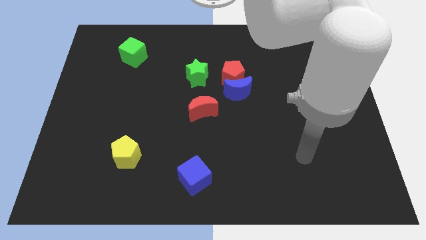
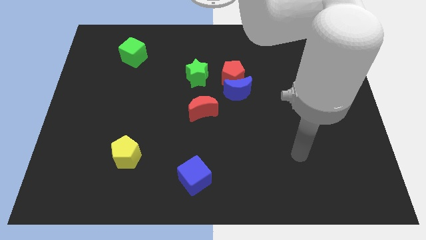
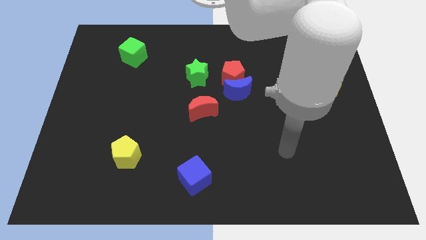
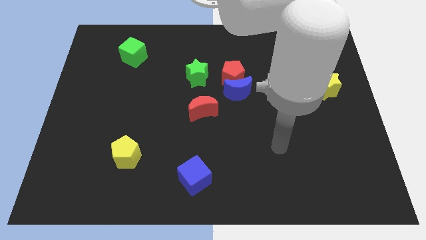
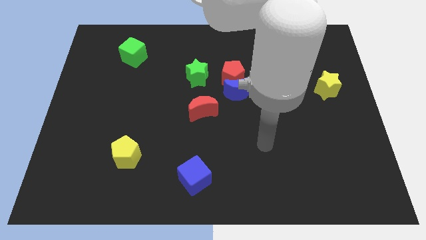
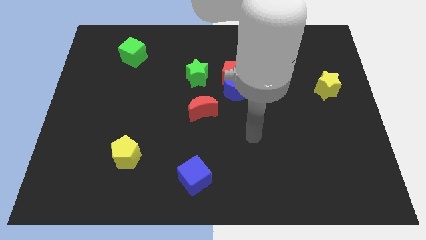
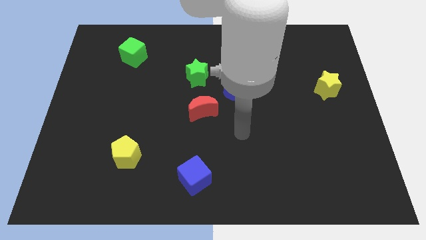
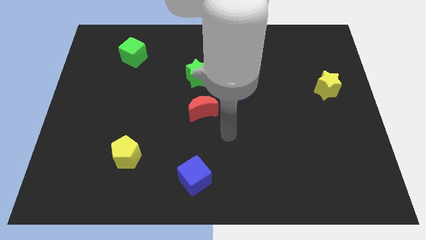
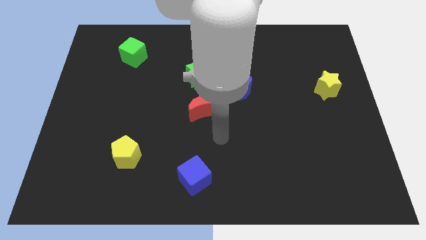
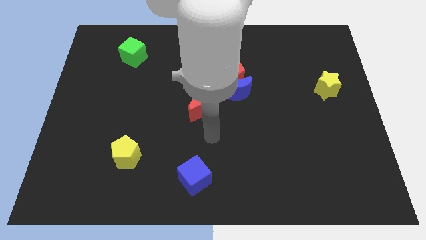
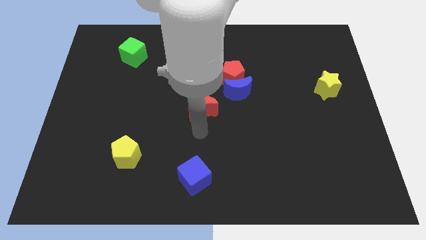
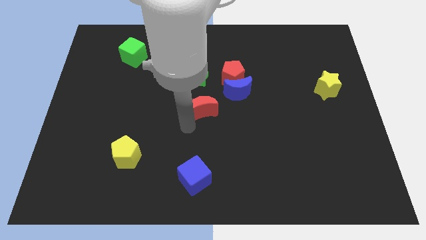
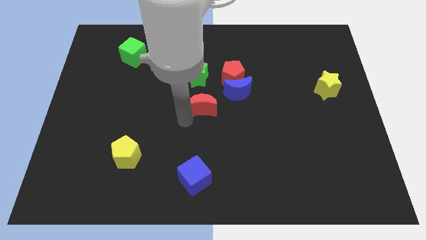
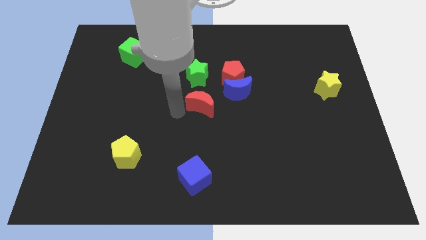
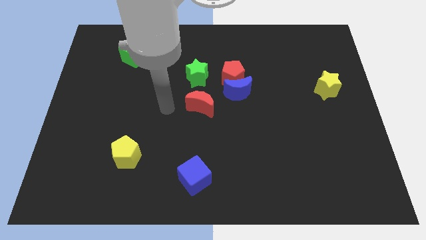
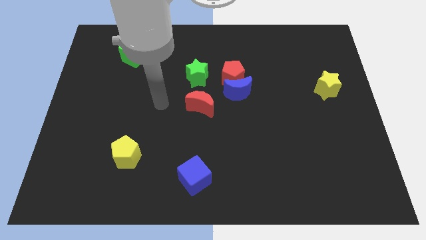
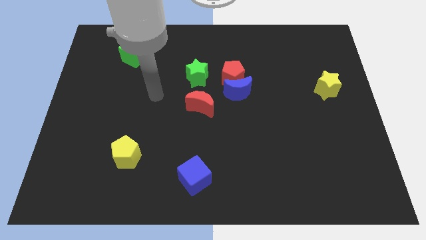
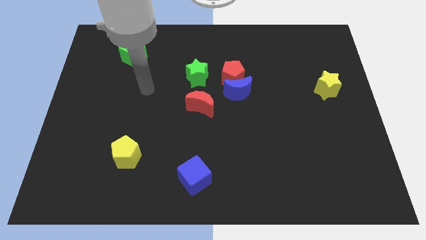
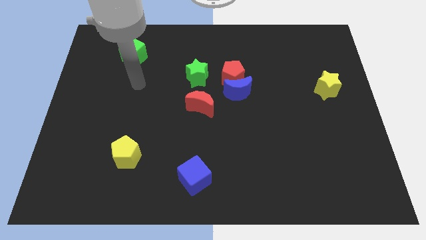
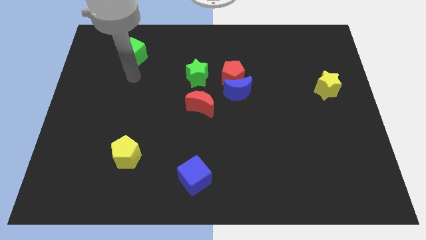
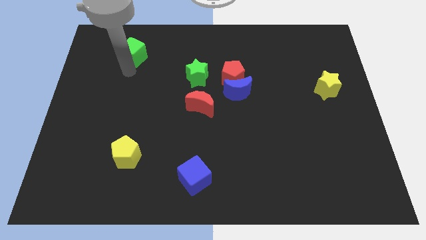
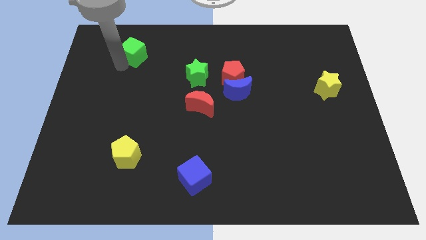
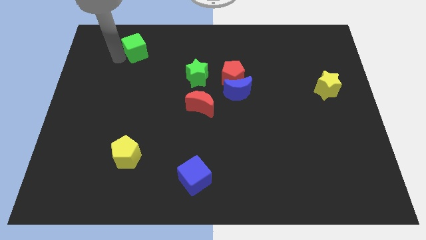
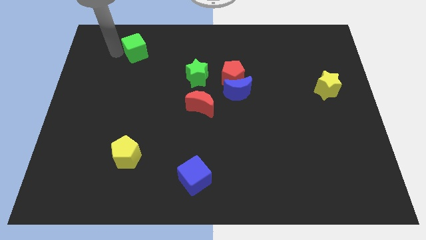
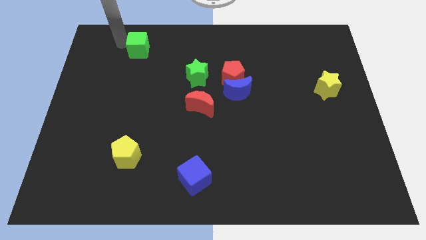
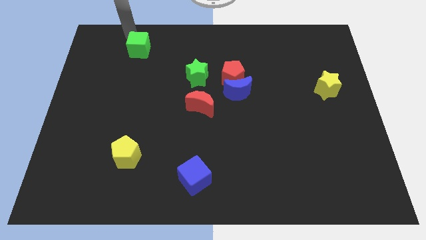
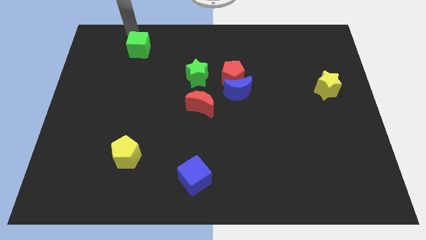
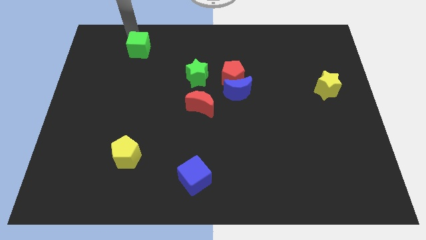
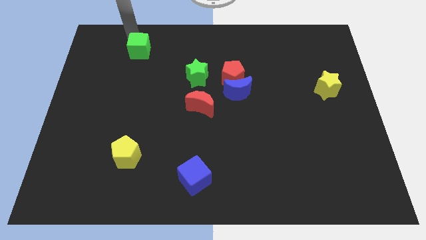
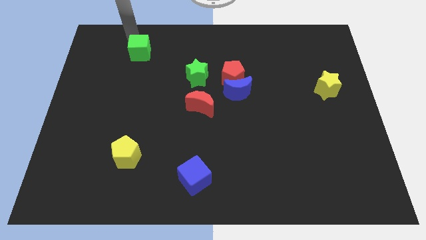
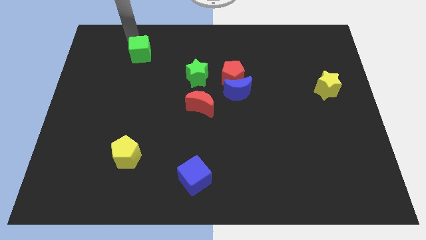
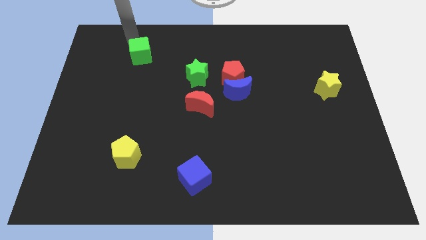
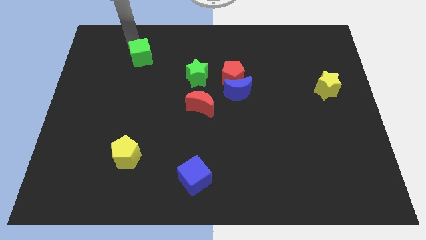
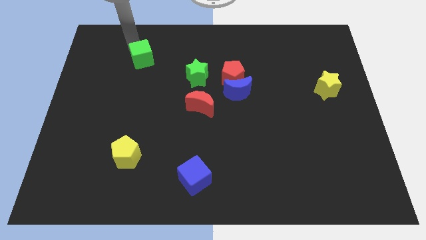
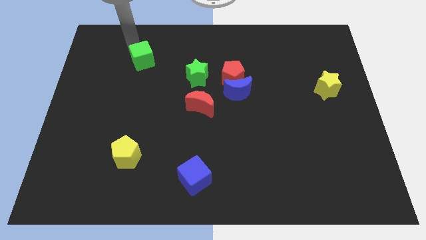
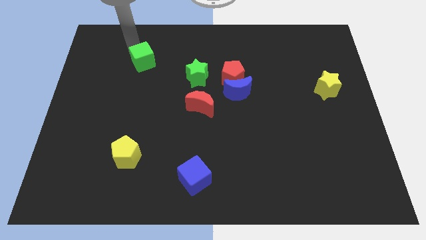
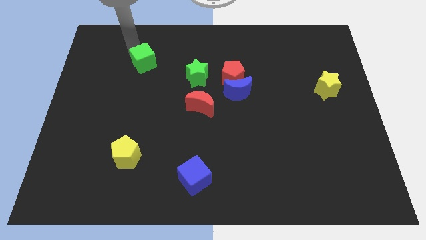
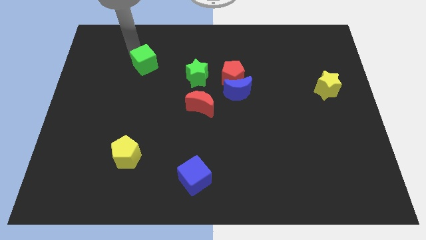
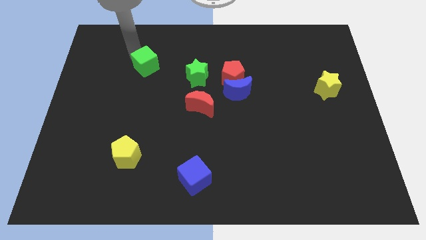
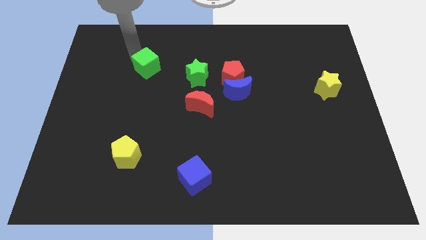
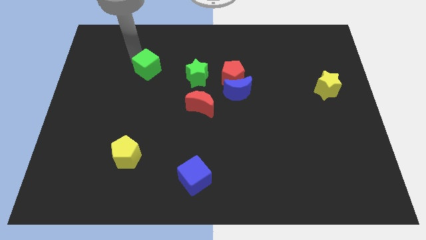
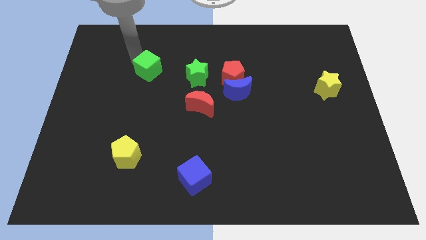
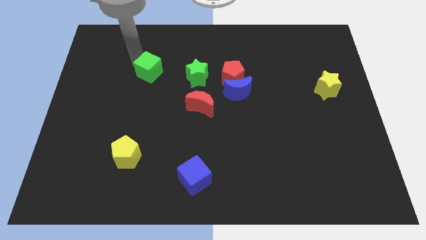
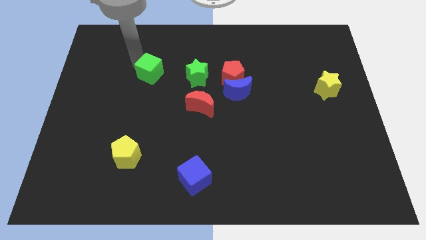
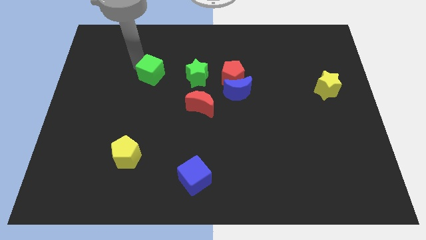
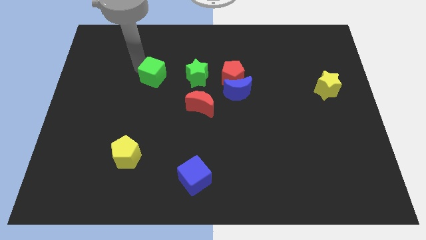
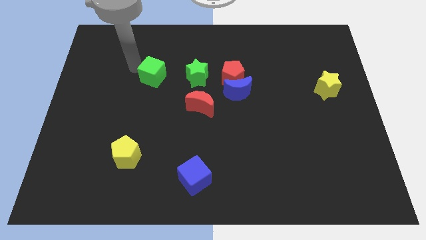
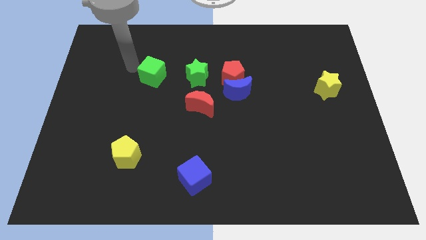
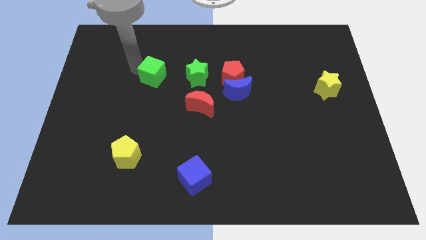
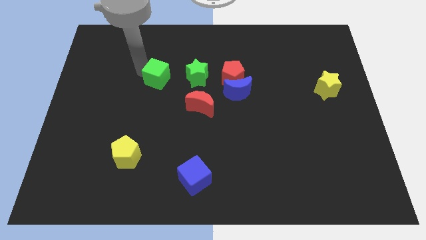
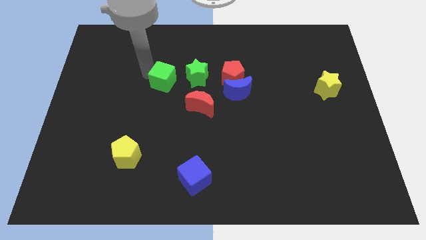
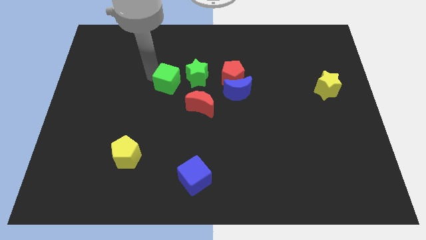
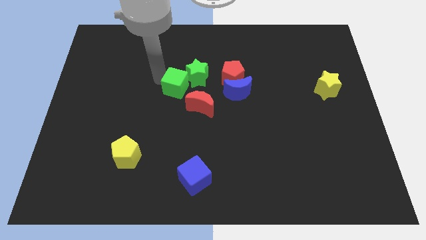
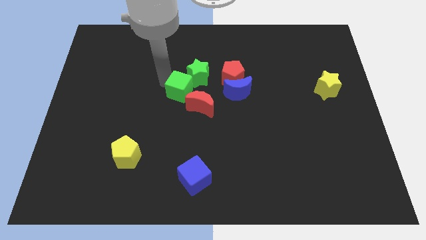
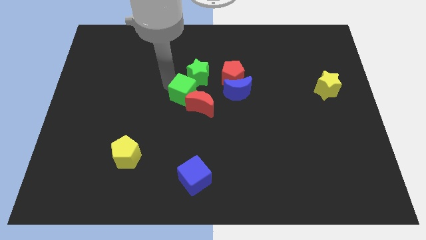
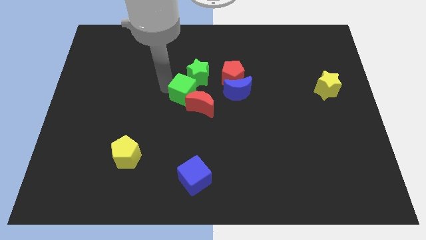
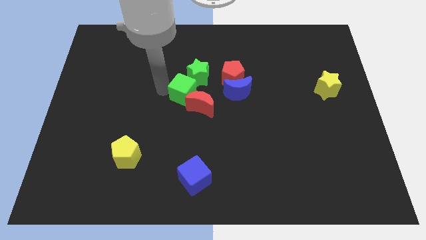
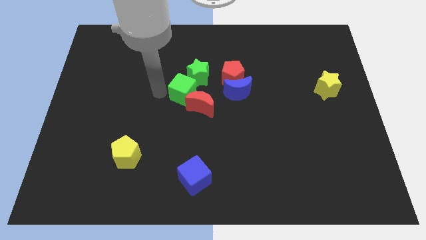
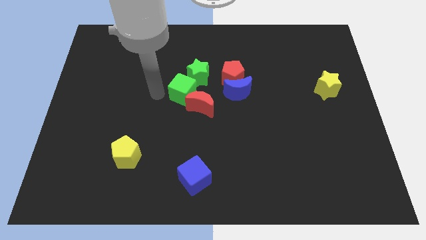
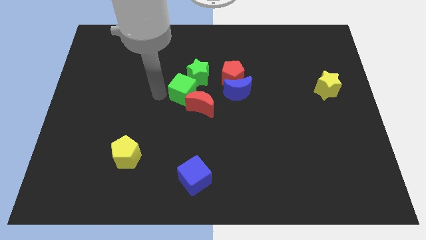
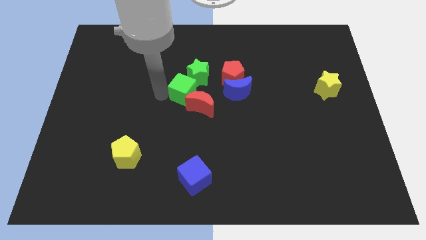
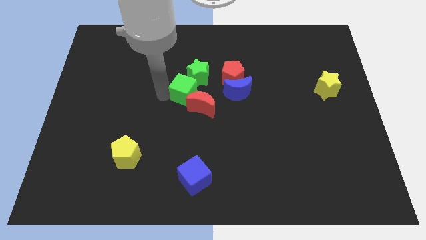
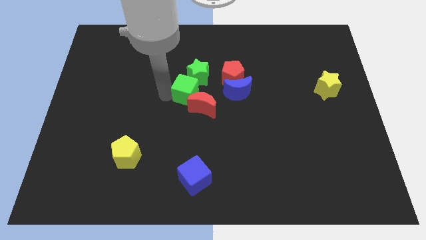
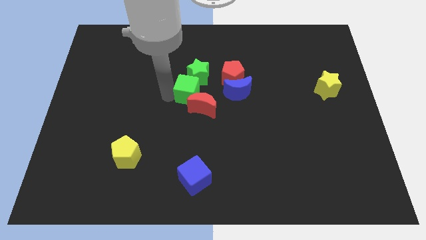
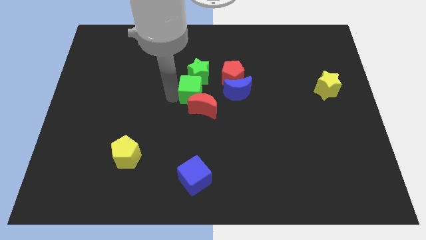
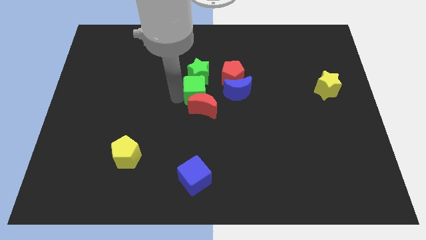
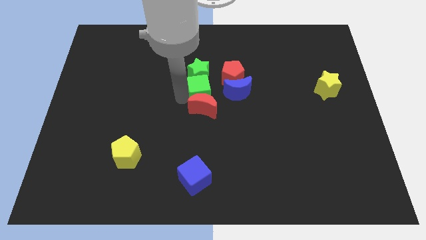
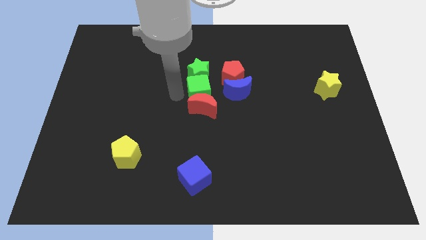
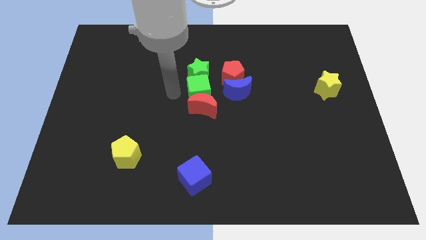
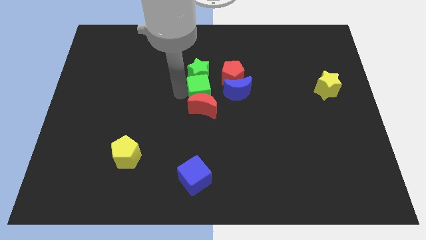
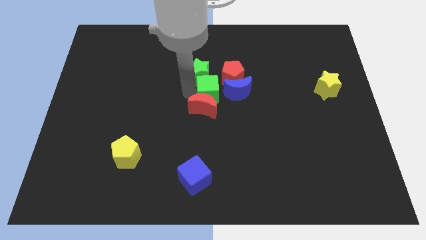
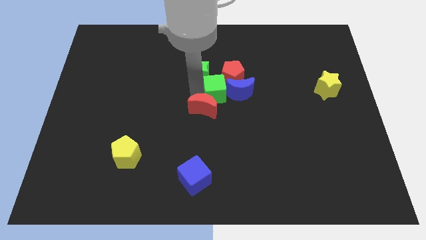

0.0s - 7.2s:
push the green cube to the blue moon

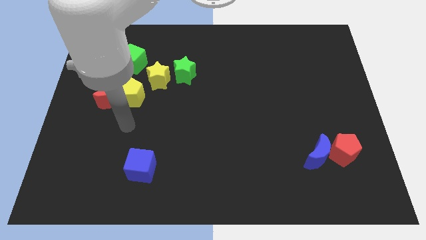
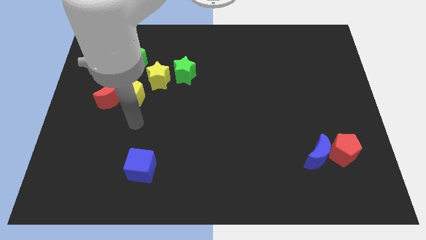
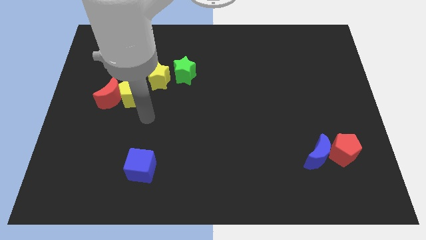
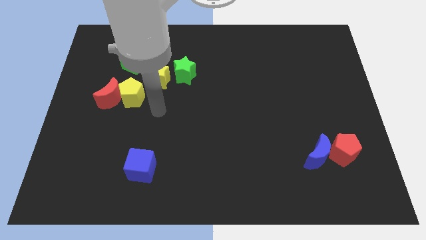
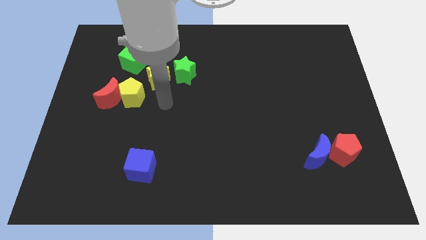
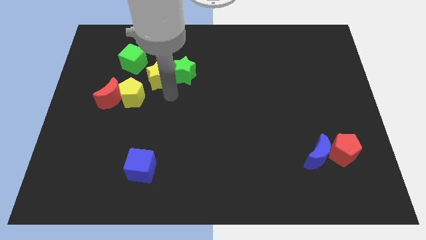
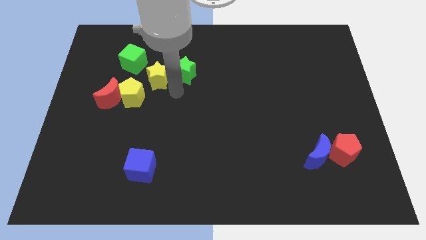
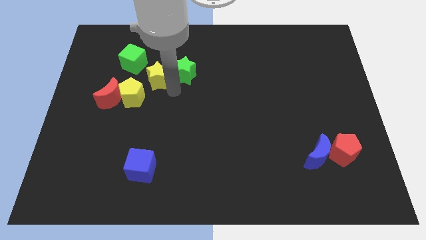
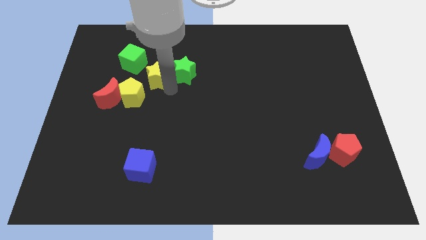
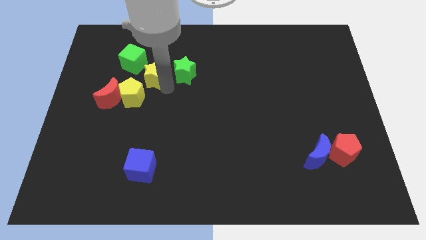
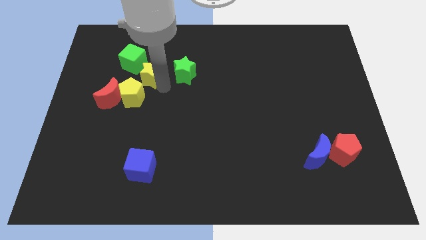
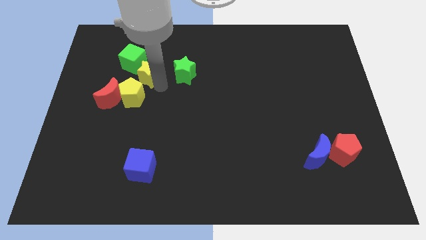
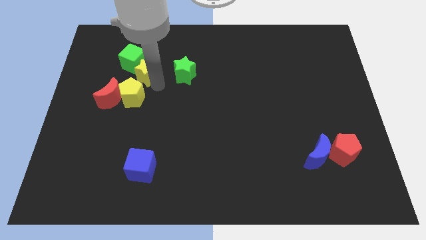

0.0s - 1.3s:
push the yellow star to the green cube
